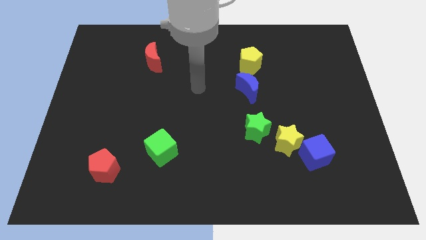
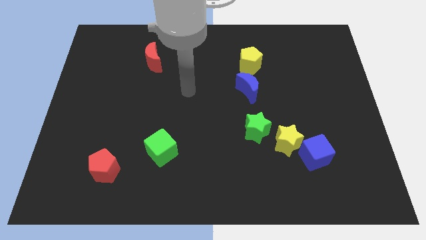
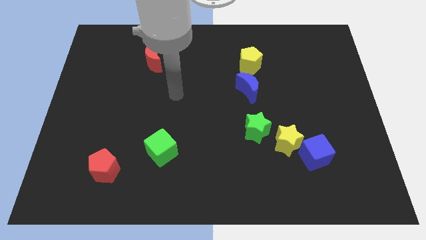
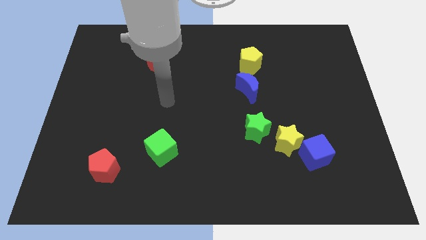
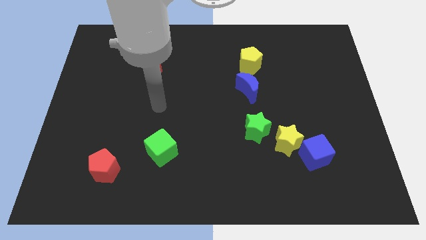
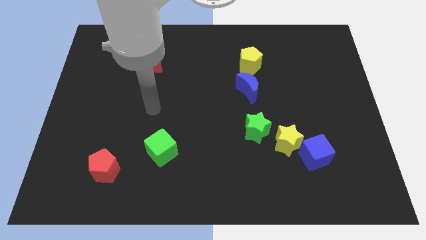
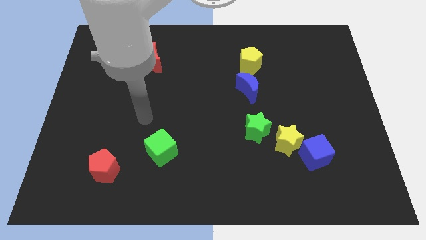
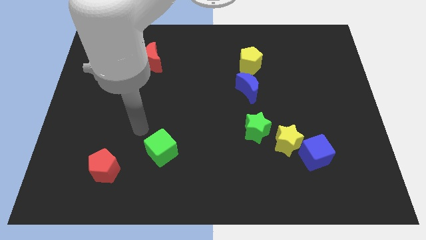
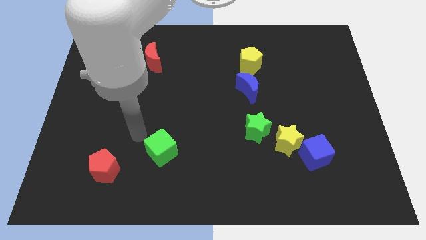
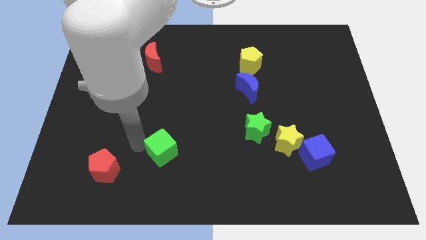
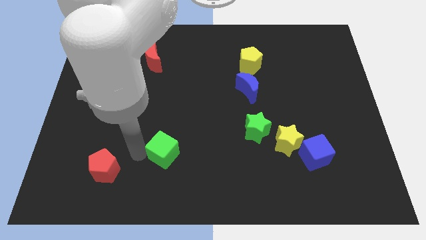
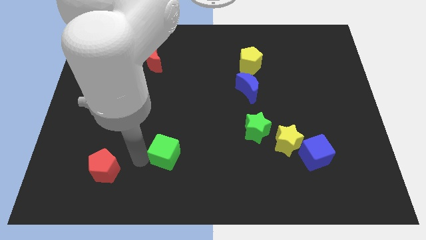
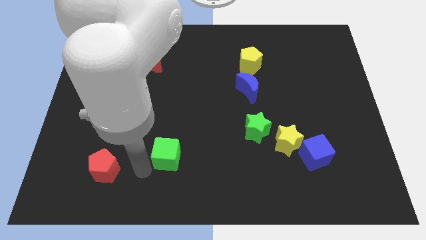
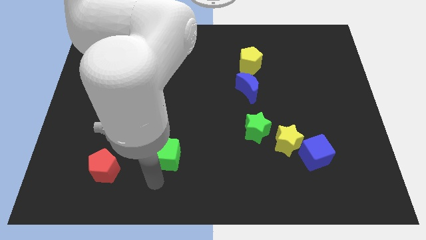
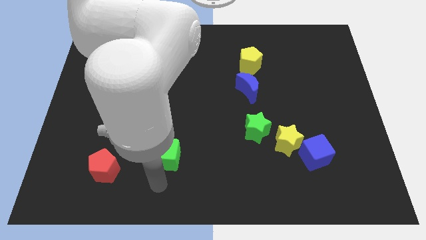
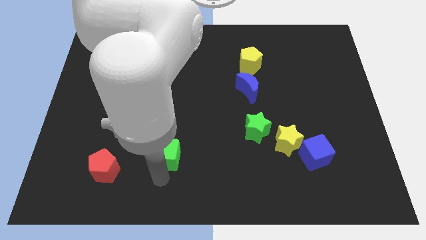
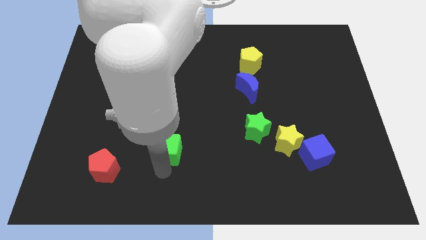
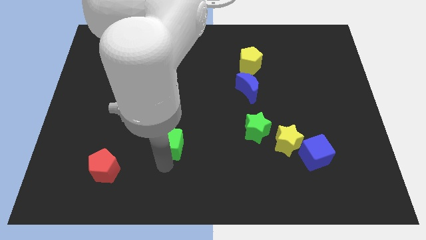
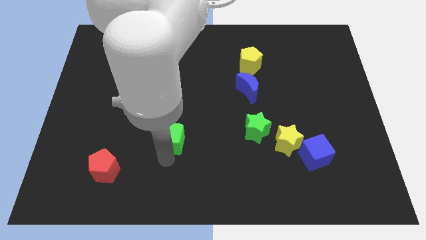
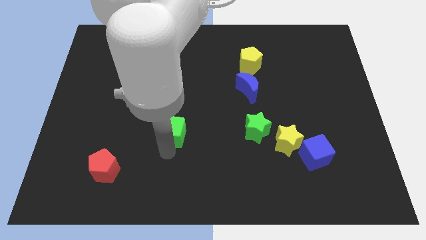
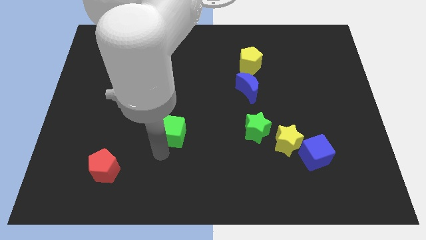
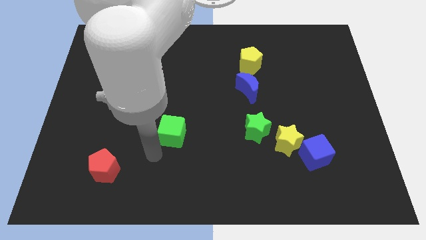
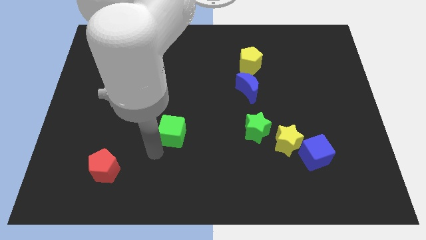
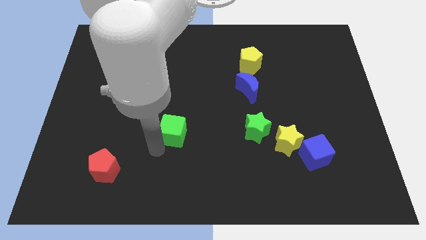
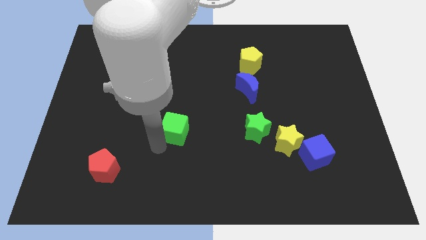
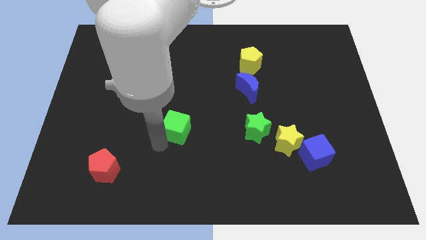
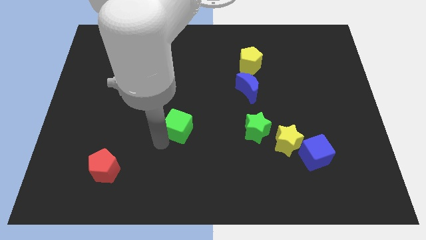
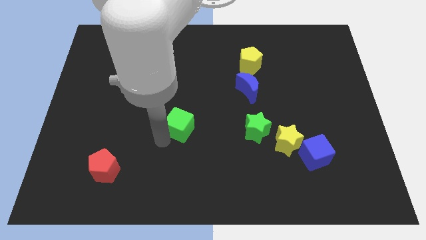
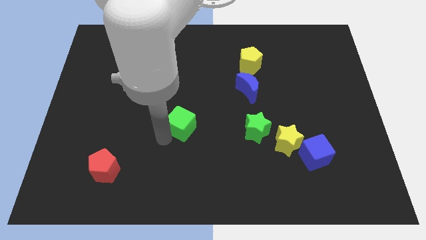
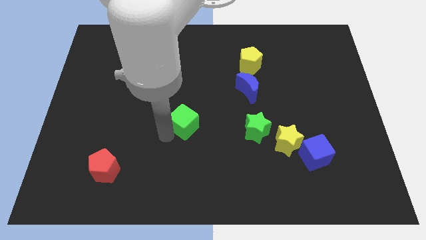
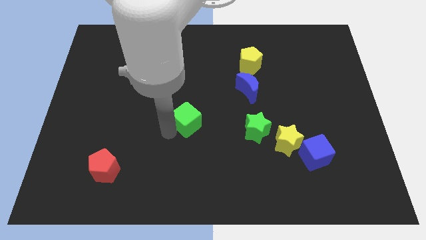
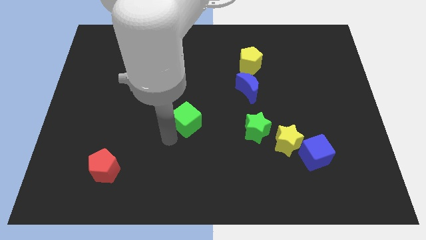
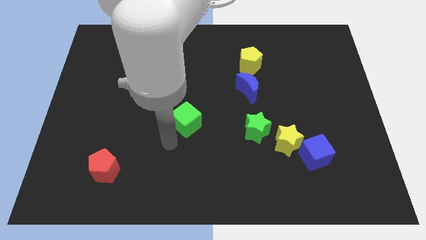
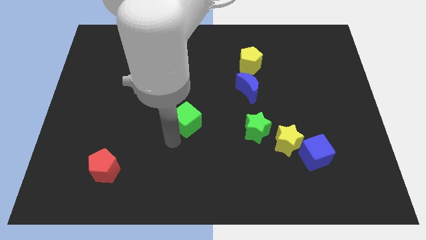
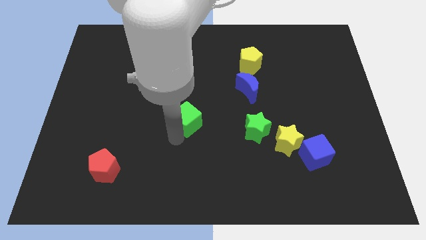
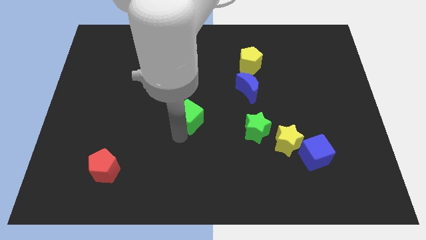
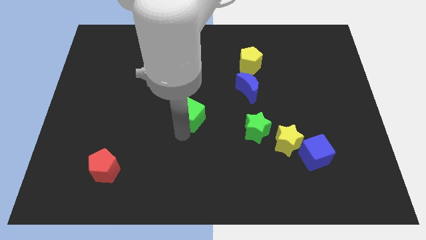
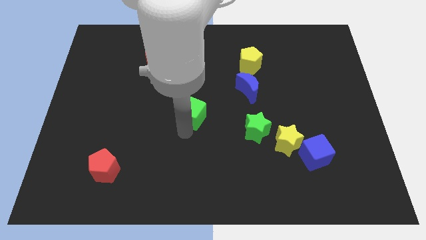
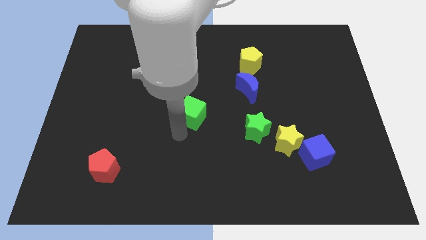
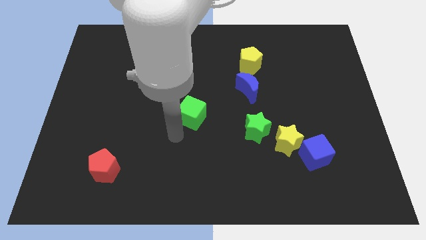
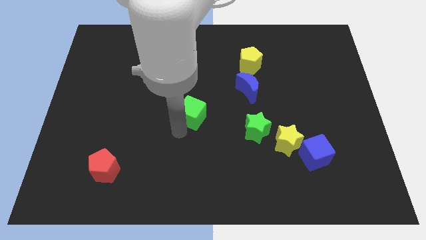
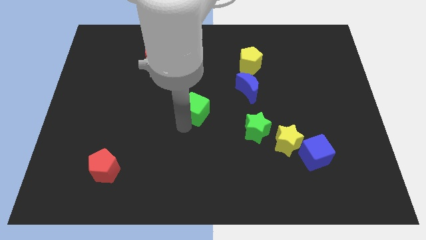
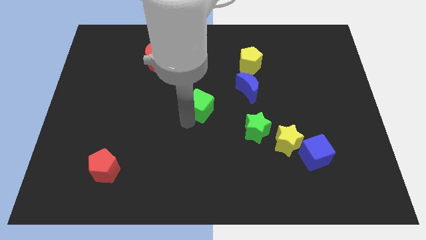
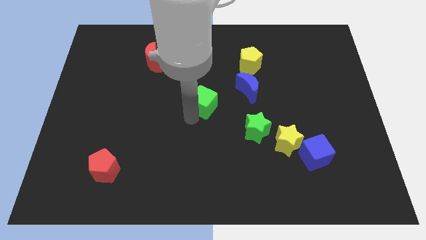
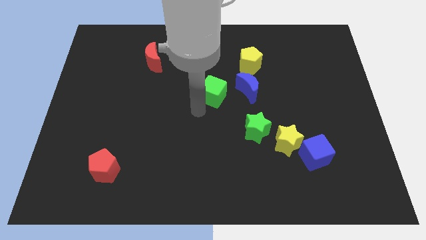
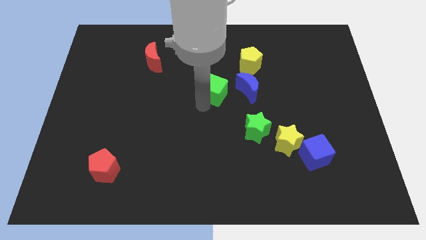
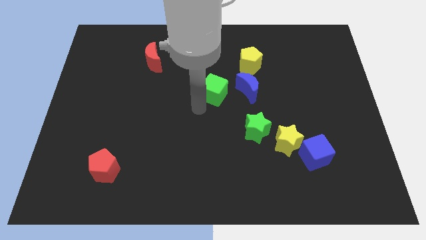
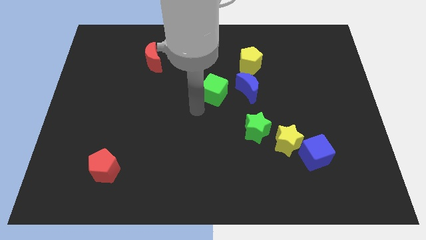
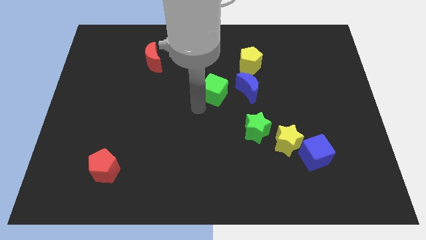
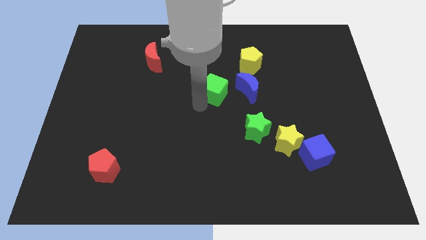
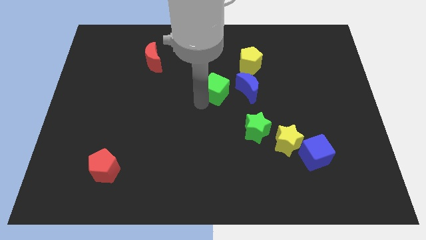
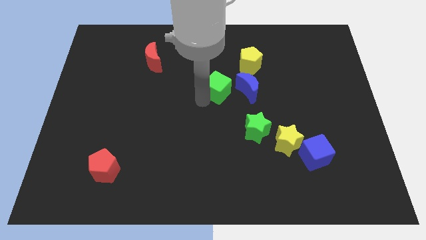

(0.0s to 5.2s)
slide the green cube to the bottom left of the yellow pentagon

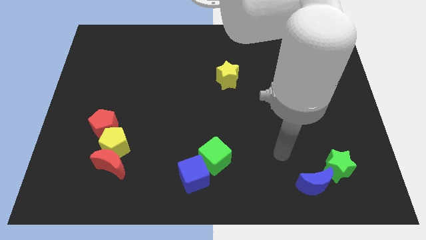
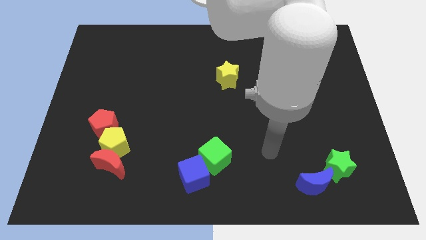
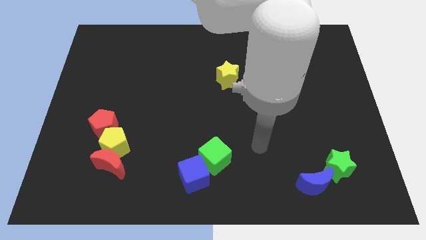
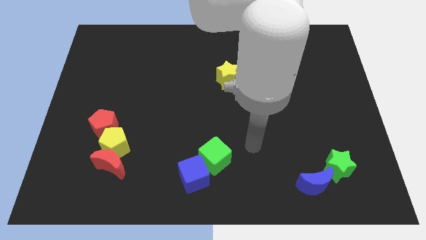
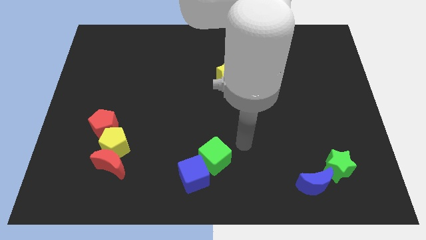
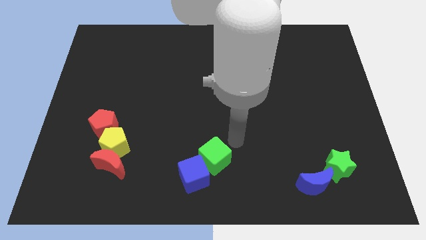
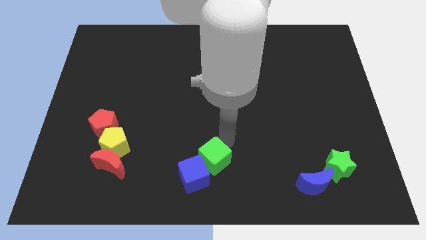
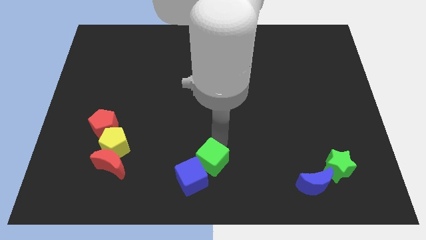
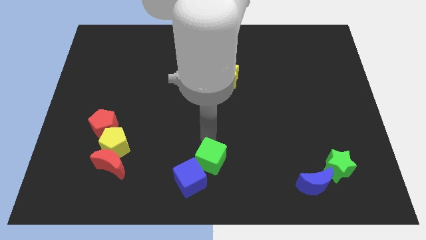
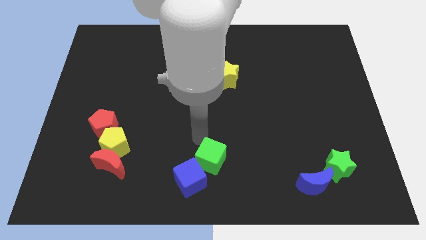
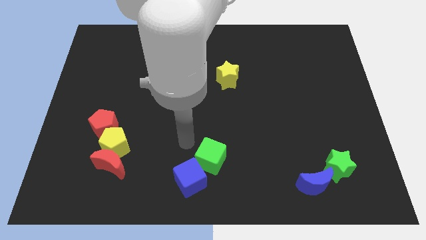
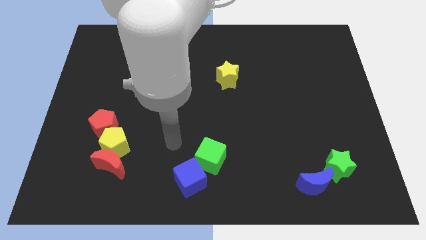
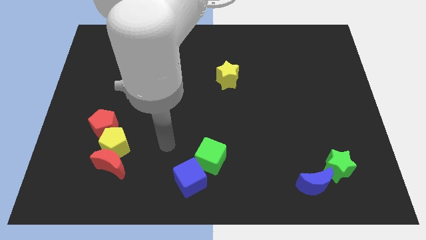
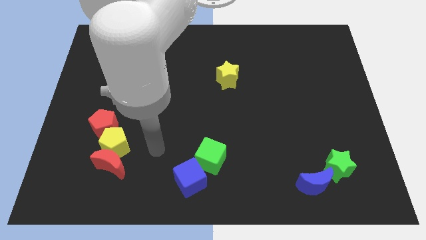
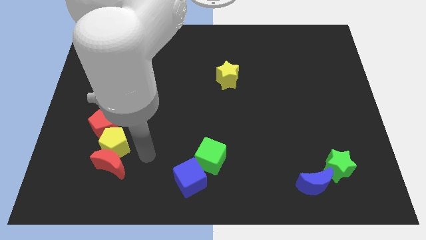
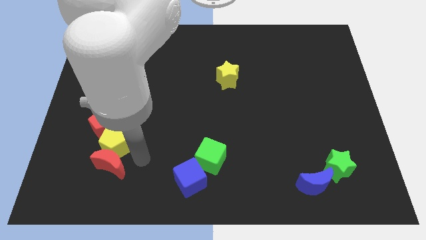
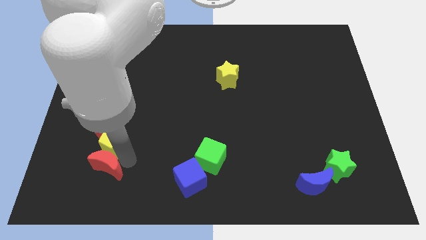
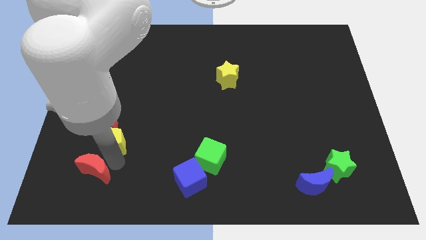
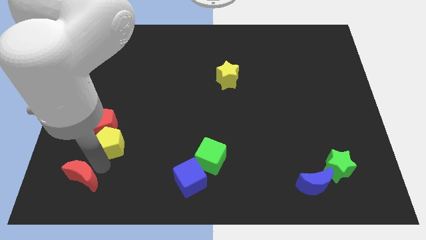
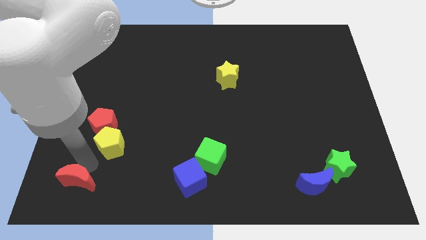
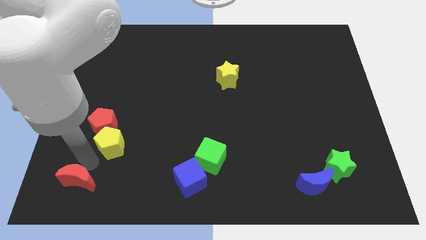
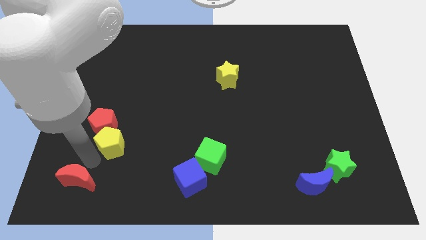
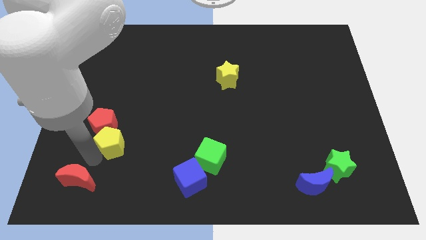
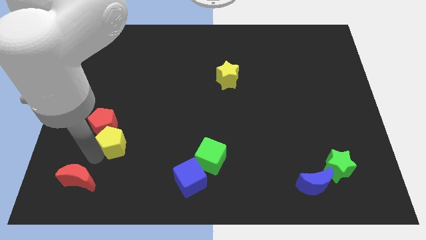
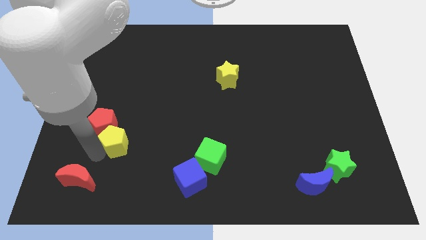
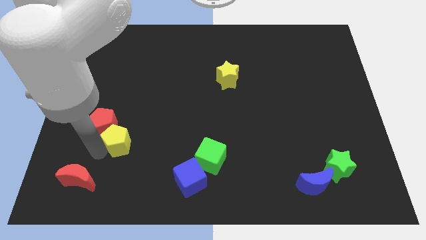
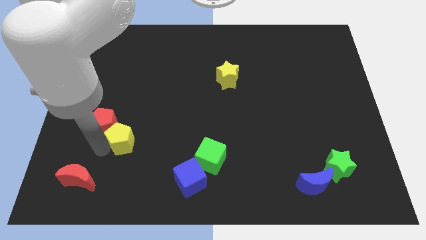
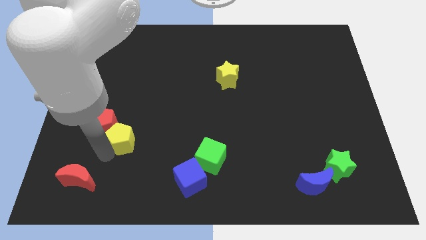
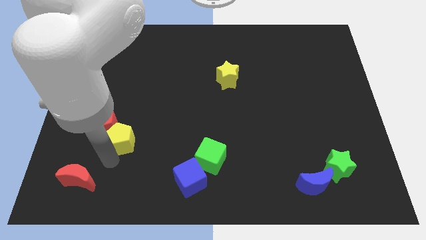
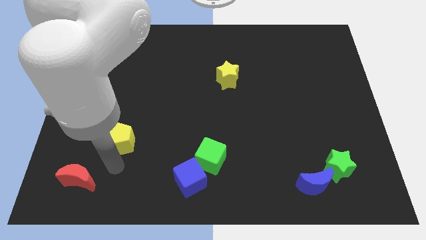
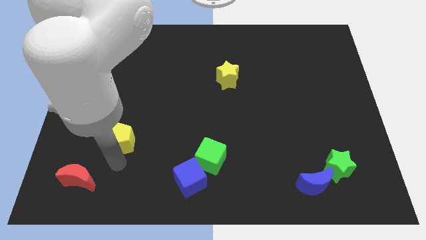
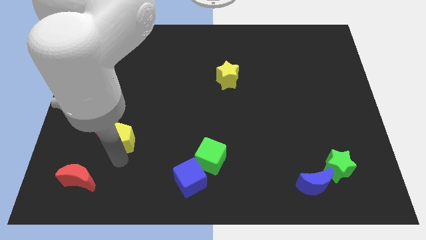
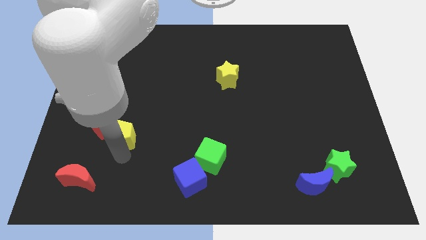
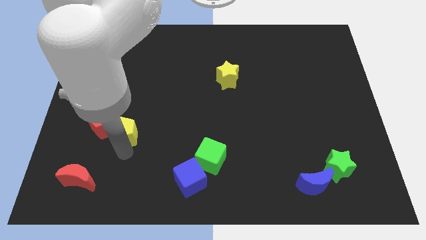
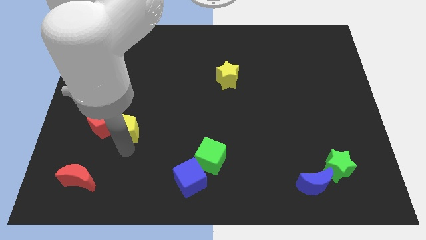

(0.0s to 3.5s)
move the yellow pentagon to the top right of the red pentagon
